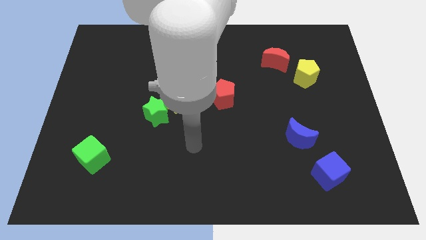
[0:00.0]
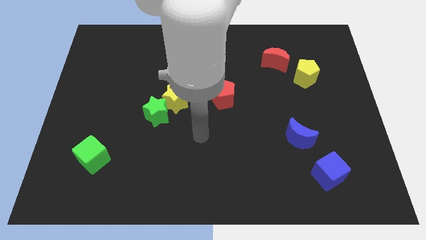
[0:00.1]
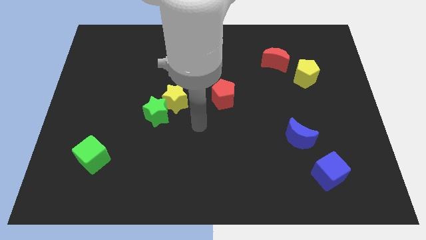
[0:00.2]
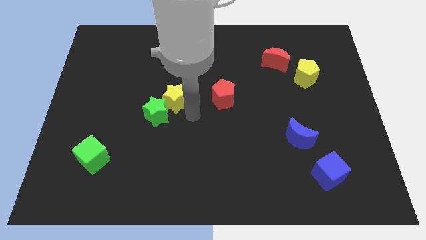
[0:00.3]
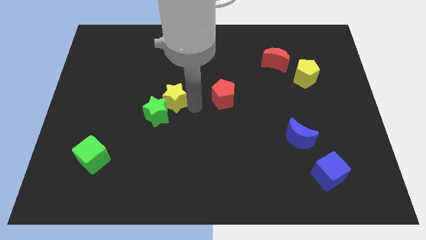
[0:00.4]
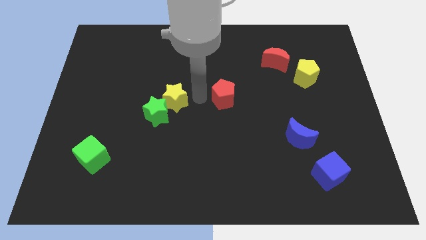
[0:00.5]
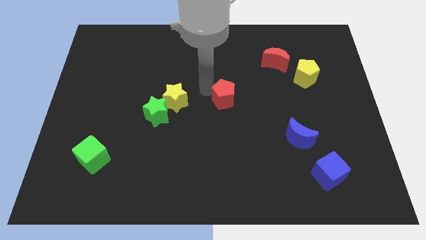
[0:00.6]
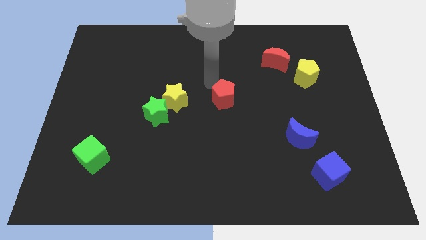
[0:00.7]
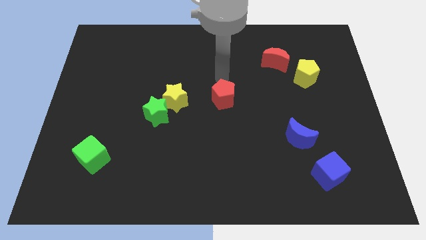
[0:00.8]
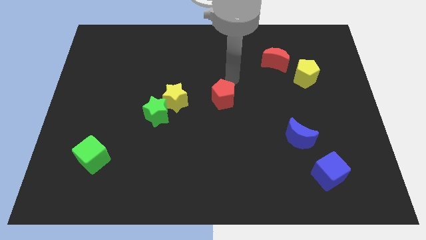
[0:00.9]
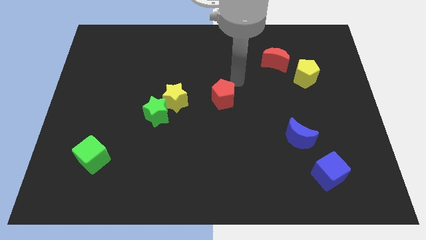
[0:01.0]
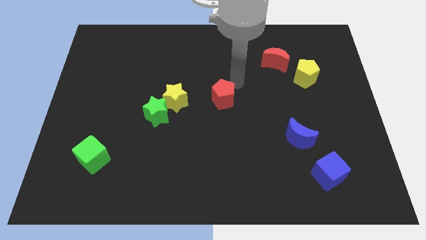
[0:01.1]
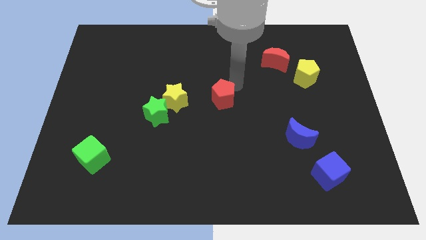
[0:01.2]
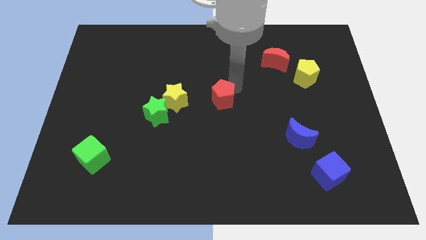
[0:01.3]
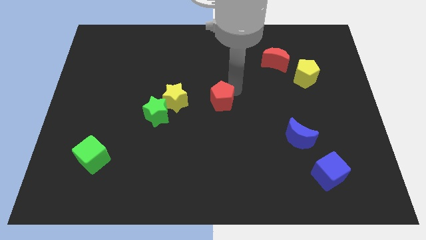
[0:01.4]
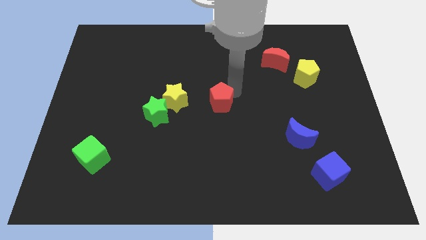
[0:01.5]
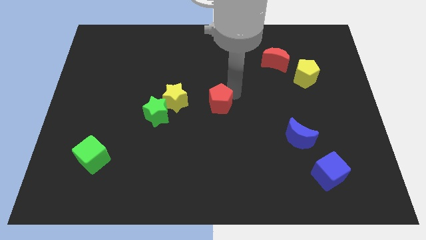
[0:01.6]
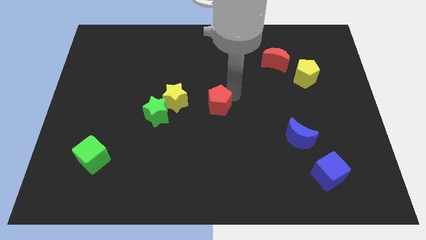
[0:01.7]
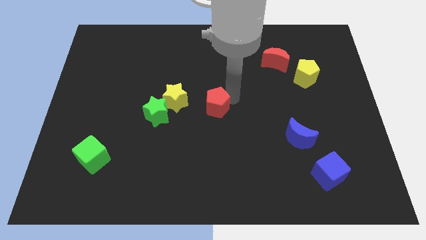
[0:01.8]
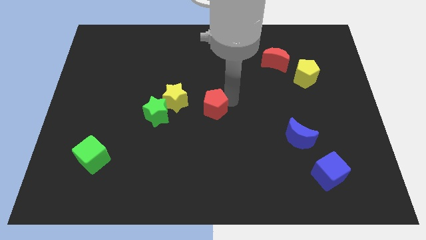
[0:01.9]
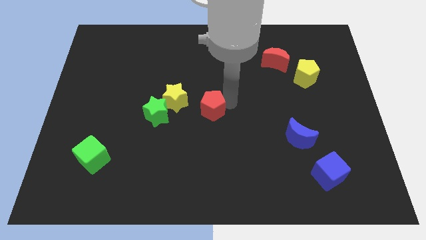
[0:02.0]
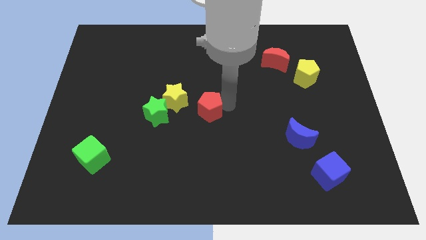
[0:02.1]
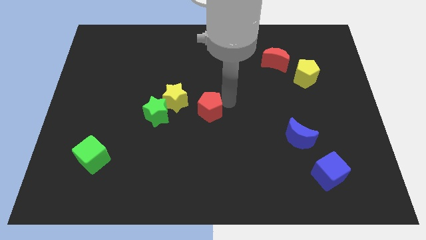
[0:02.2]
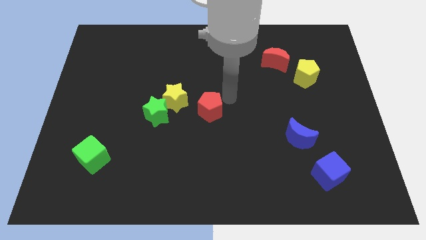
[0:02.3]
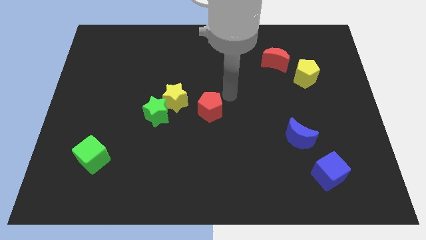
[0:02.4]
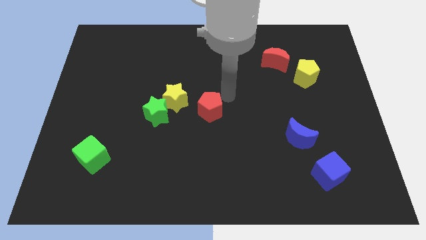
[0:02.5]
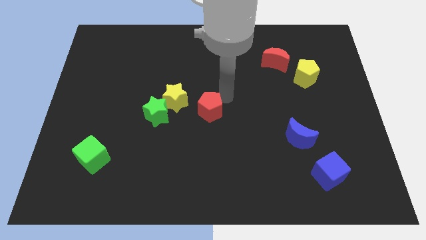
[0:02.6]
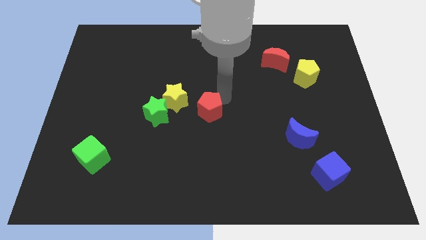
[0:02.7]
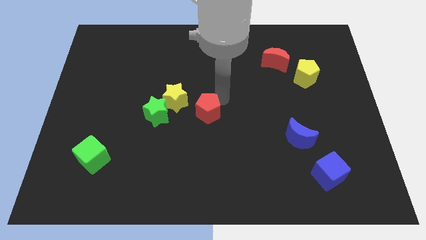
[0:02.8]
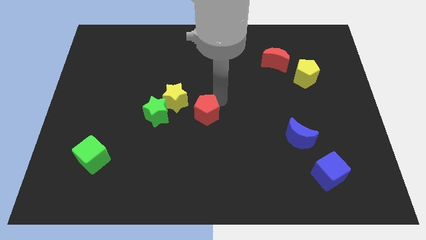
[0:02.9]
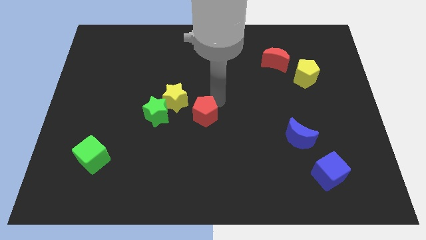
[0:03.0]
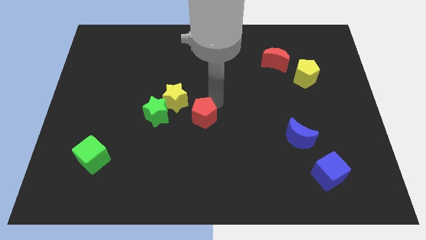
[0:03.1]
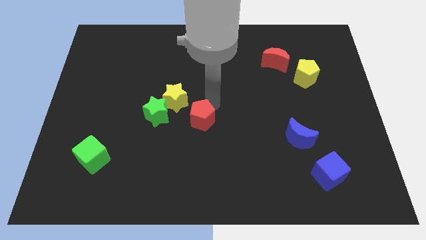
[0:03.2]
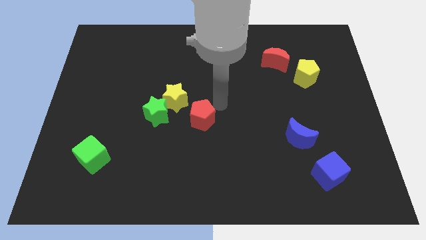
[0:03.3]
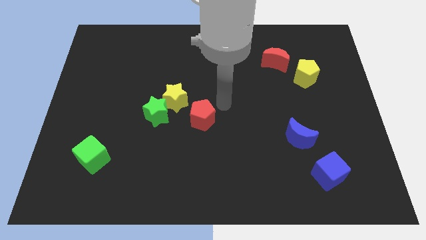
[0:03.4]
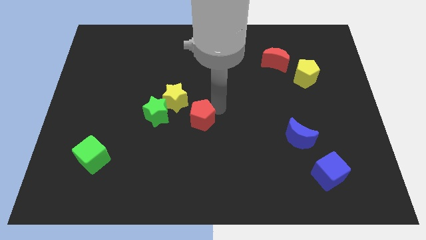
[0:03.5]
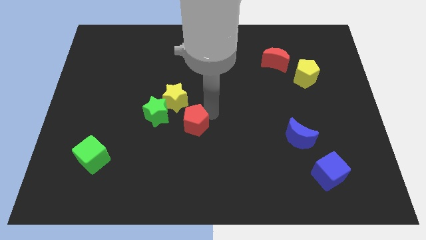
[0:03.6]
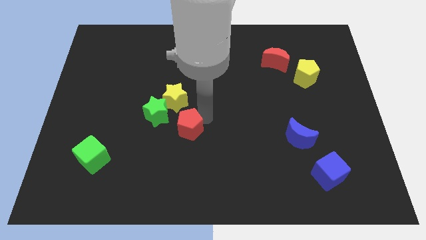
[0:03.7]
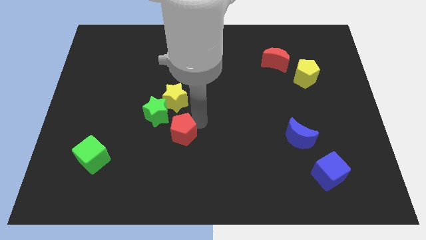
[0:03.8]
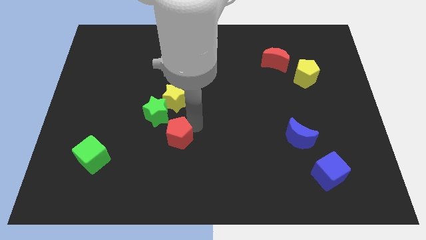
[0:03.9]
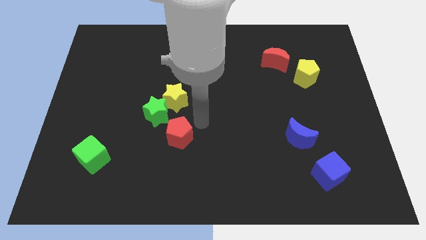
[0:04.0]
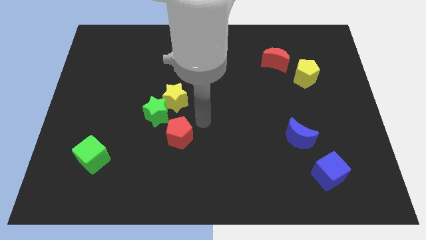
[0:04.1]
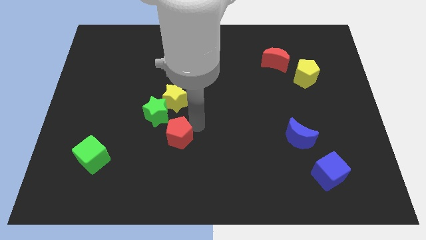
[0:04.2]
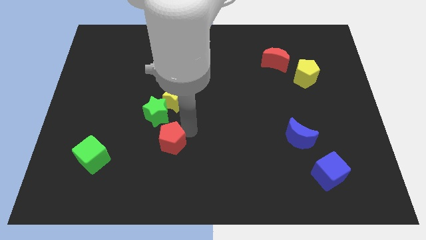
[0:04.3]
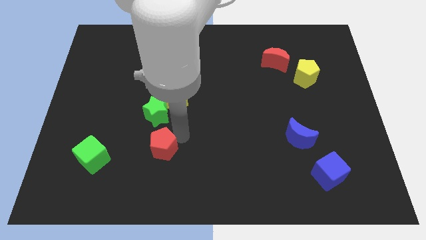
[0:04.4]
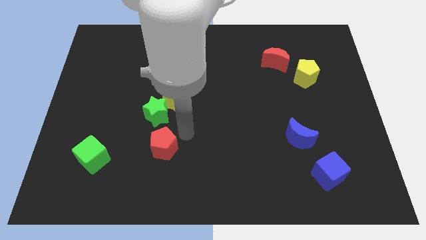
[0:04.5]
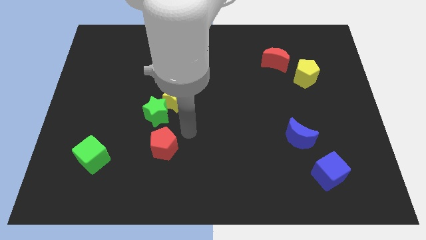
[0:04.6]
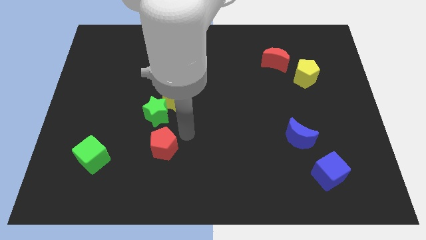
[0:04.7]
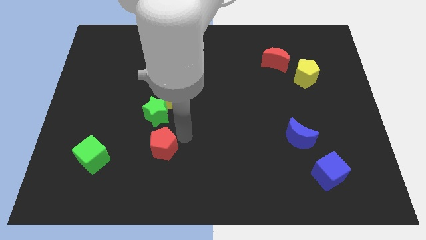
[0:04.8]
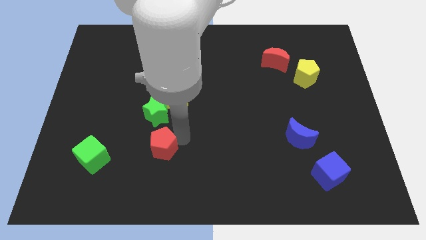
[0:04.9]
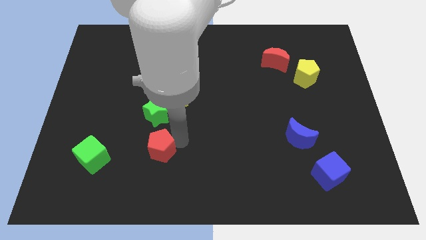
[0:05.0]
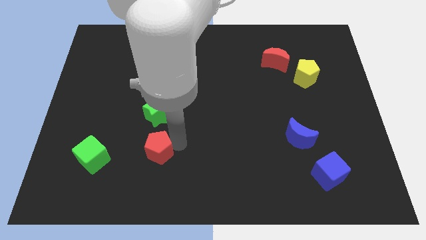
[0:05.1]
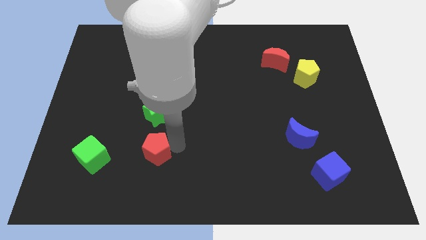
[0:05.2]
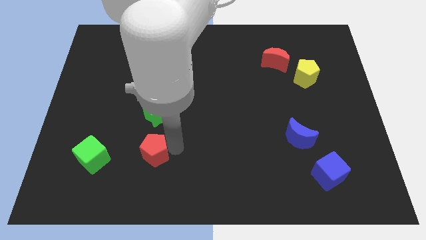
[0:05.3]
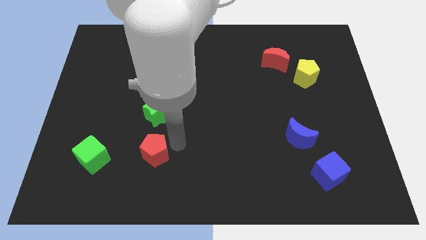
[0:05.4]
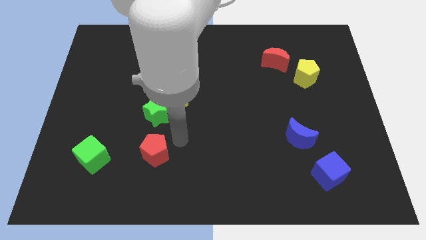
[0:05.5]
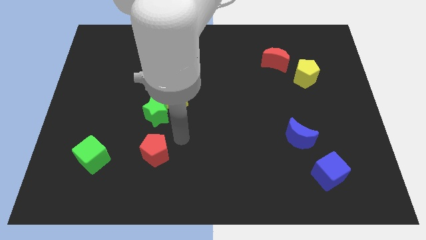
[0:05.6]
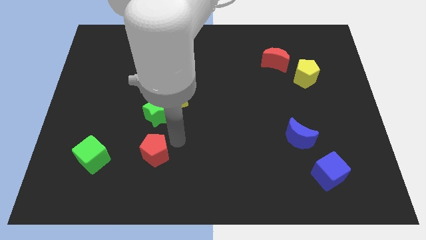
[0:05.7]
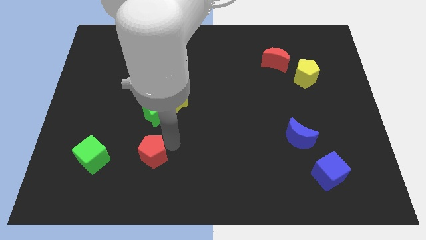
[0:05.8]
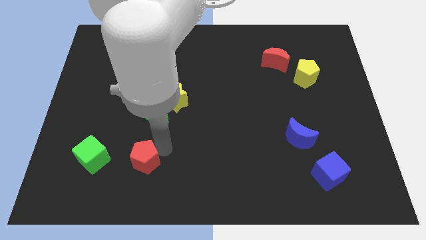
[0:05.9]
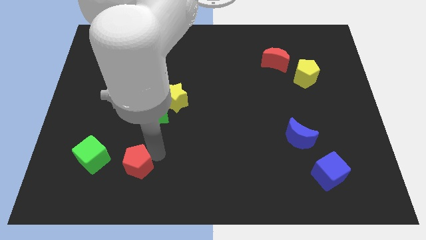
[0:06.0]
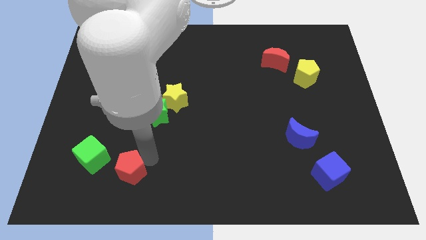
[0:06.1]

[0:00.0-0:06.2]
move the red pentagon to the bottom right of the green cube
